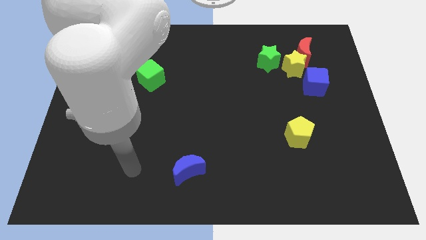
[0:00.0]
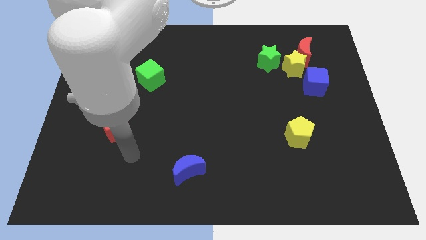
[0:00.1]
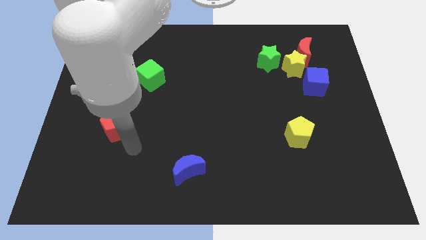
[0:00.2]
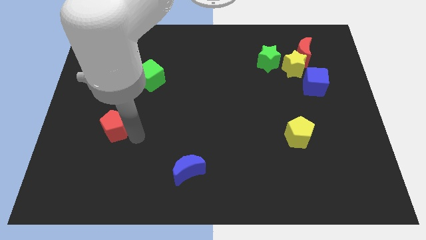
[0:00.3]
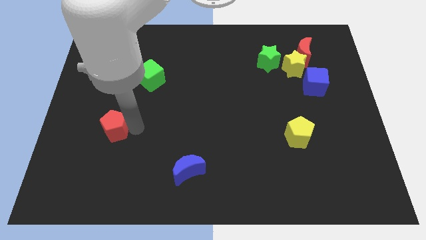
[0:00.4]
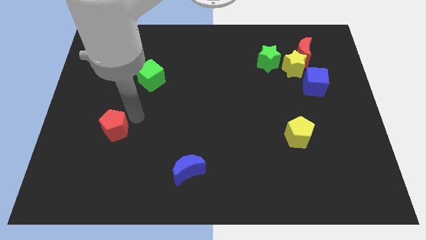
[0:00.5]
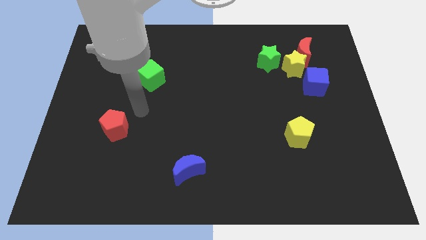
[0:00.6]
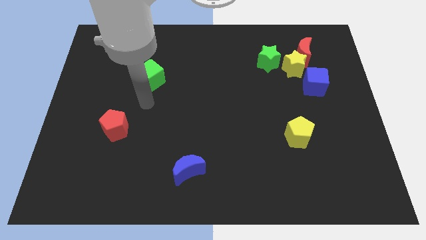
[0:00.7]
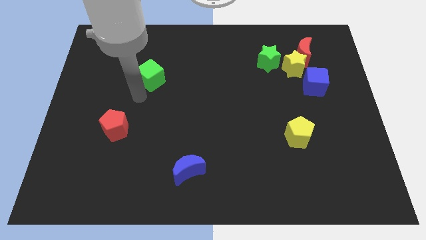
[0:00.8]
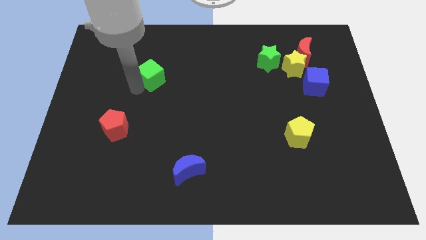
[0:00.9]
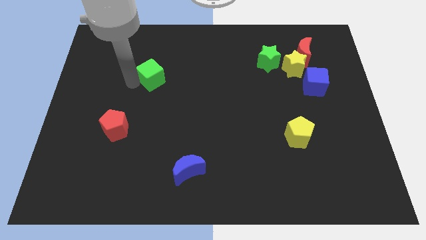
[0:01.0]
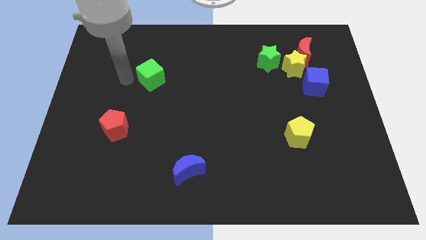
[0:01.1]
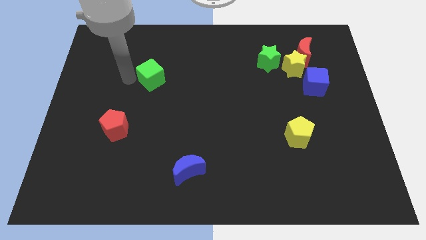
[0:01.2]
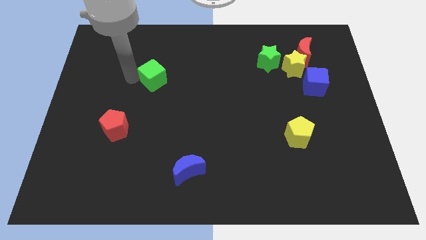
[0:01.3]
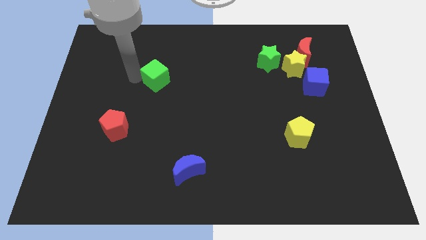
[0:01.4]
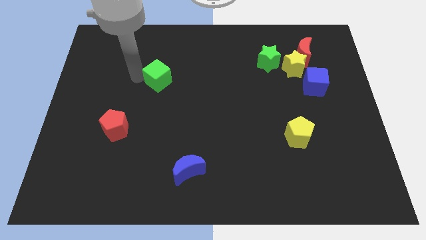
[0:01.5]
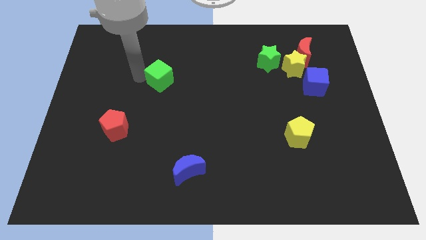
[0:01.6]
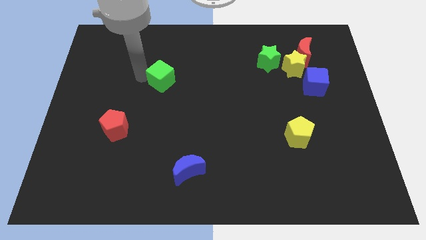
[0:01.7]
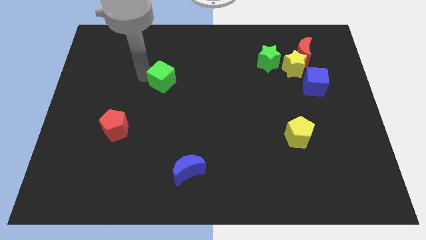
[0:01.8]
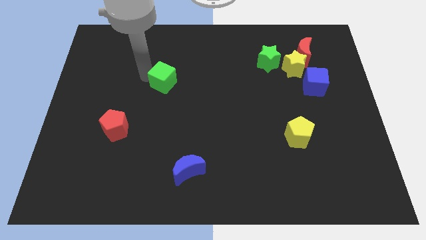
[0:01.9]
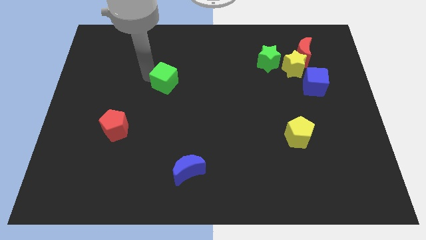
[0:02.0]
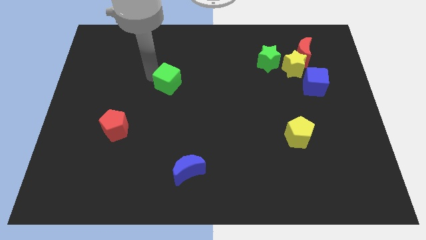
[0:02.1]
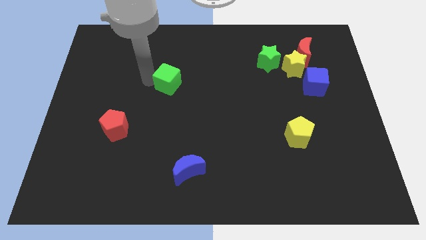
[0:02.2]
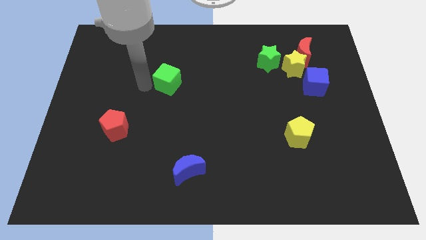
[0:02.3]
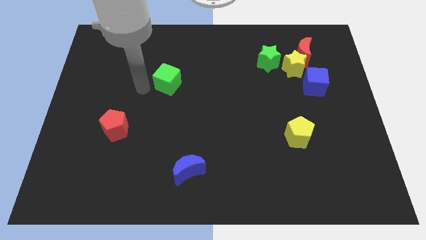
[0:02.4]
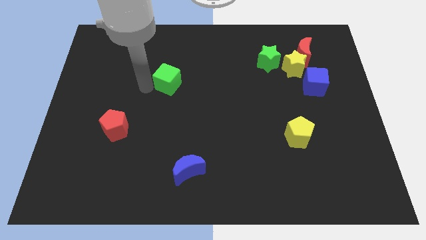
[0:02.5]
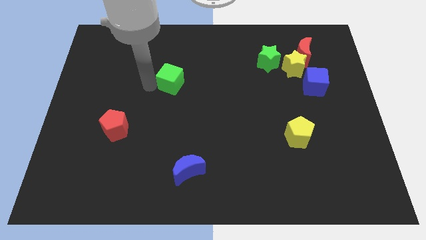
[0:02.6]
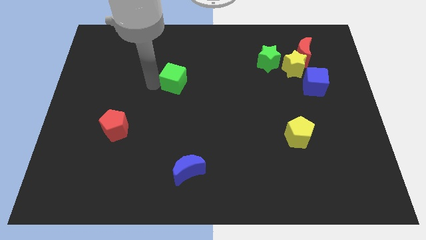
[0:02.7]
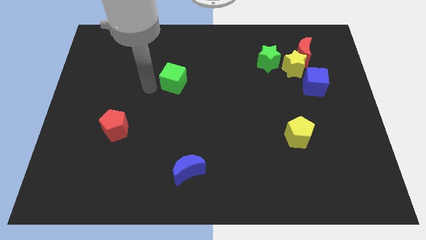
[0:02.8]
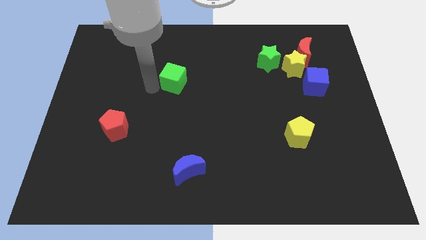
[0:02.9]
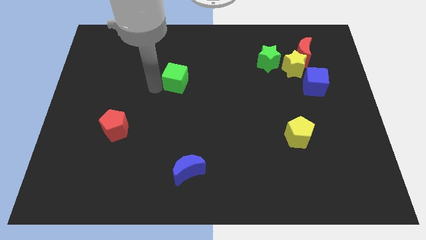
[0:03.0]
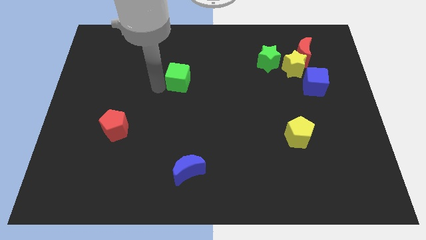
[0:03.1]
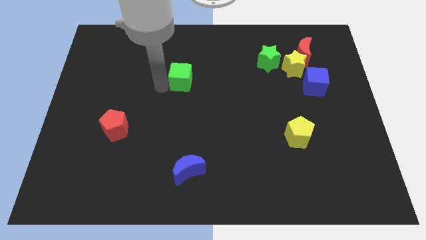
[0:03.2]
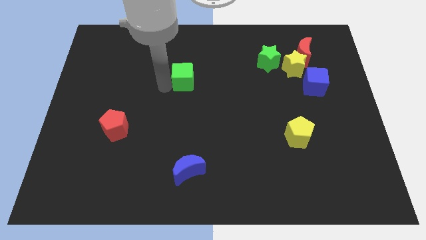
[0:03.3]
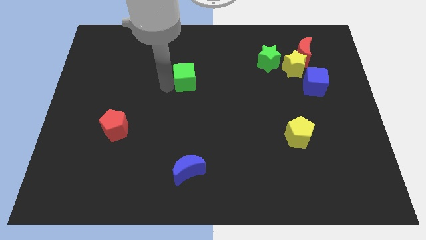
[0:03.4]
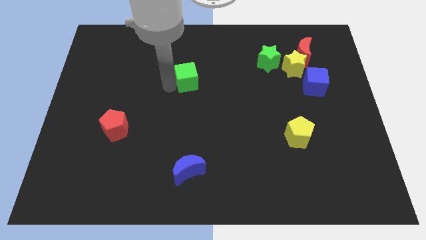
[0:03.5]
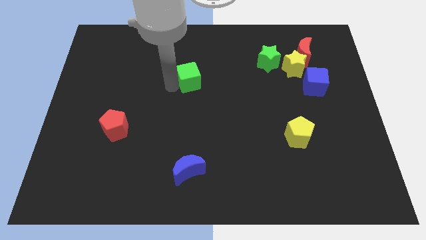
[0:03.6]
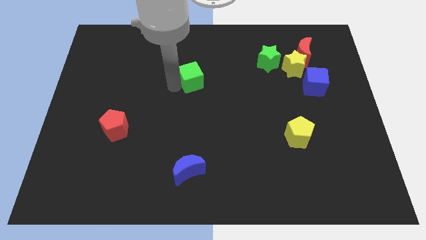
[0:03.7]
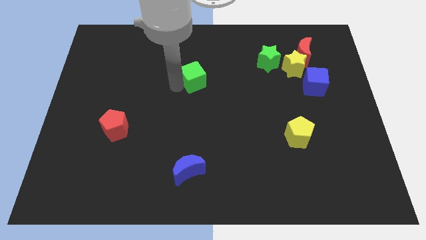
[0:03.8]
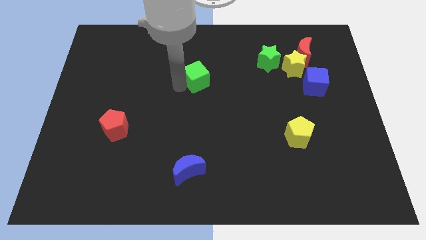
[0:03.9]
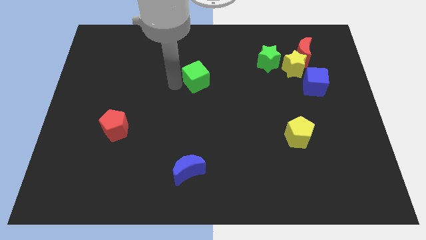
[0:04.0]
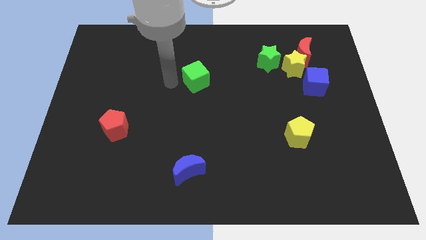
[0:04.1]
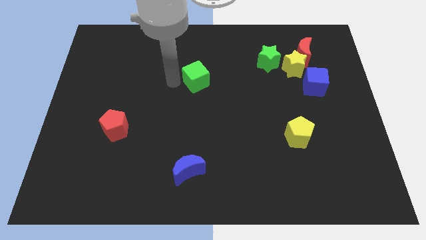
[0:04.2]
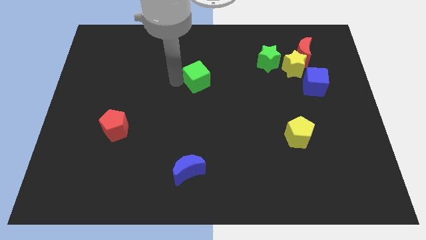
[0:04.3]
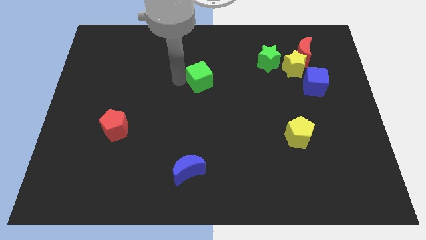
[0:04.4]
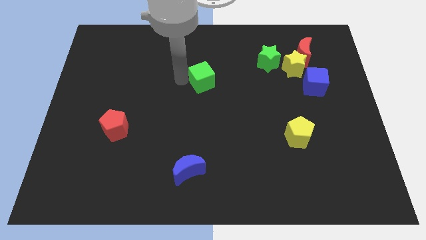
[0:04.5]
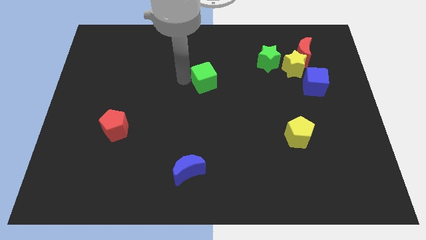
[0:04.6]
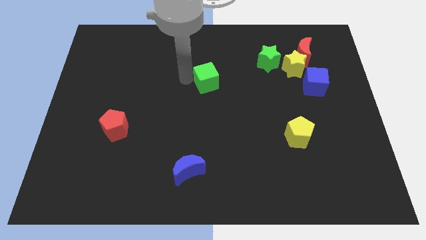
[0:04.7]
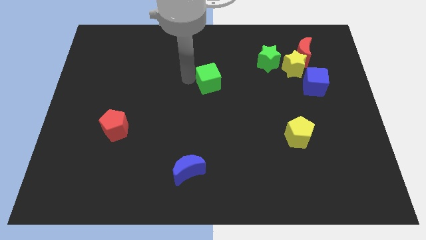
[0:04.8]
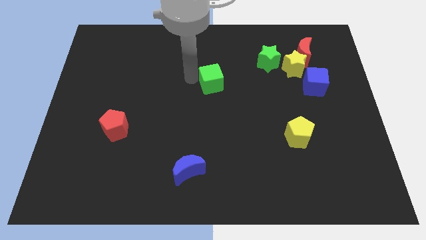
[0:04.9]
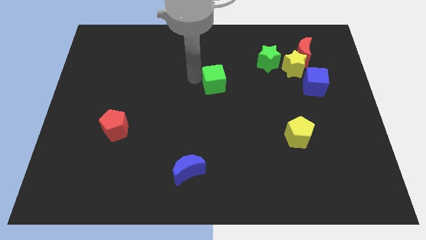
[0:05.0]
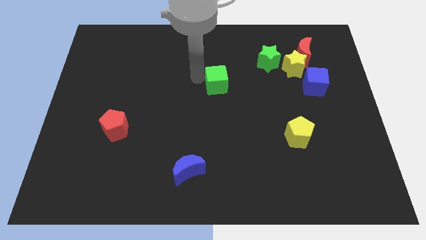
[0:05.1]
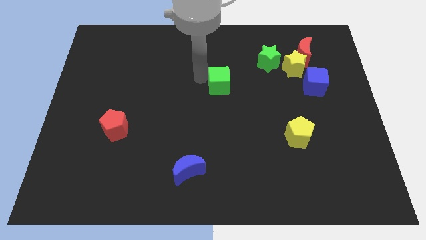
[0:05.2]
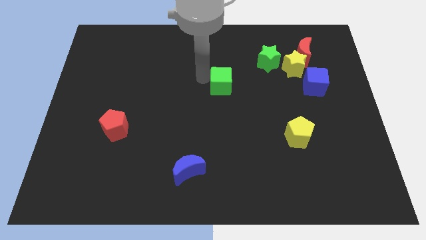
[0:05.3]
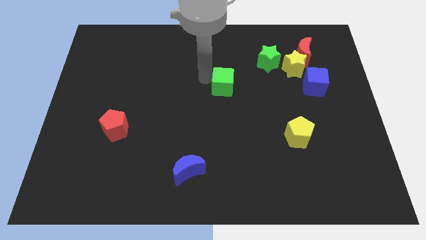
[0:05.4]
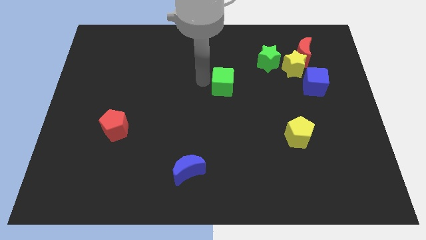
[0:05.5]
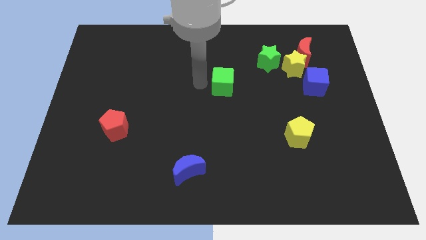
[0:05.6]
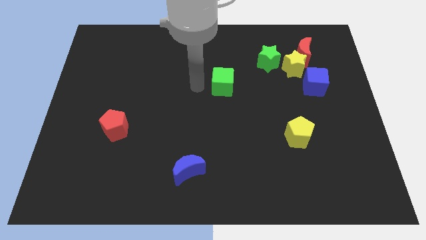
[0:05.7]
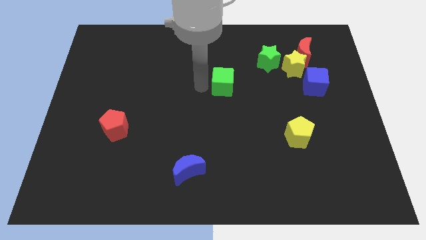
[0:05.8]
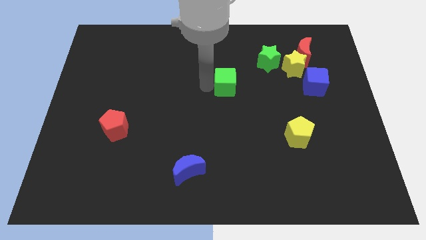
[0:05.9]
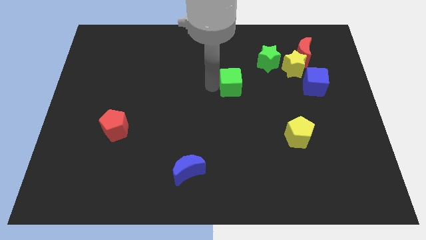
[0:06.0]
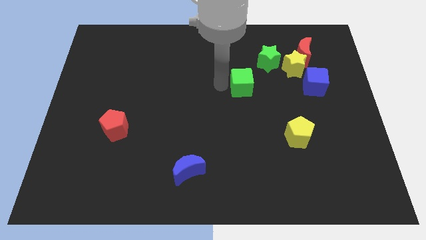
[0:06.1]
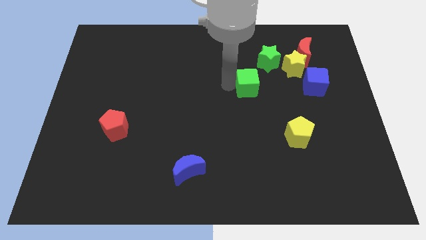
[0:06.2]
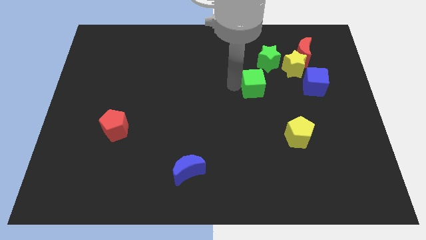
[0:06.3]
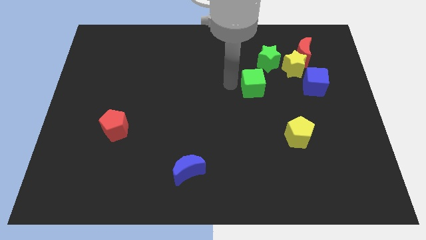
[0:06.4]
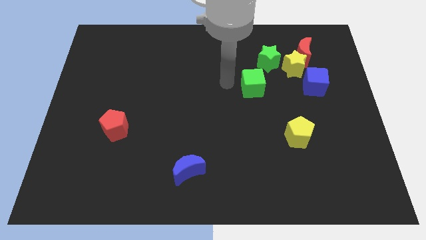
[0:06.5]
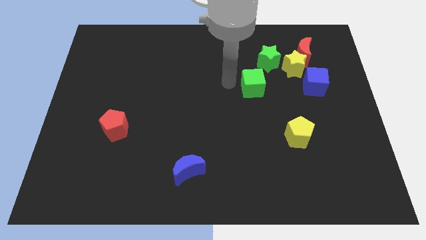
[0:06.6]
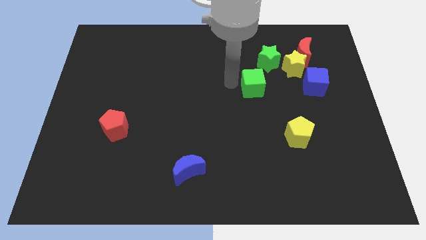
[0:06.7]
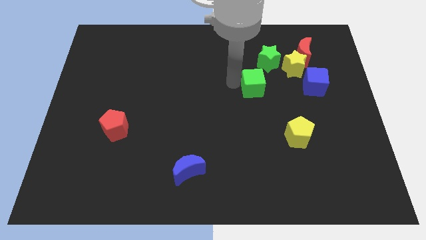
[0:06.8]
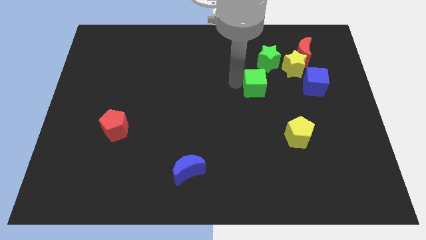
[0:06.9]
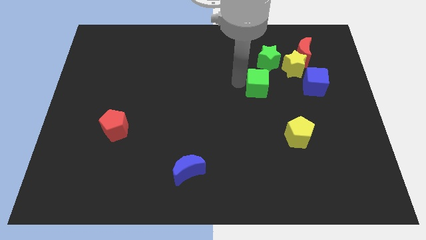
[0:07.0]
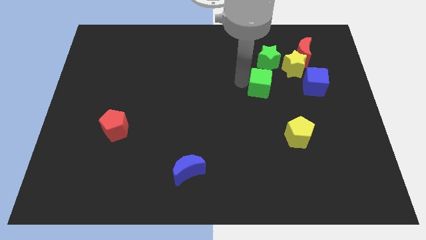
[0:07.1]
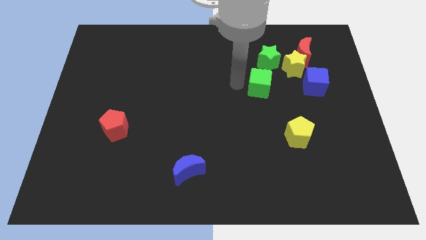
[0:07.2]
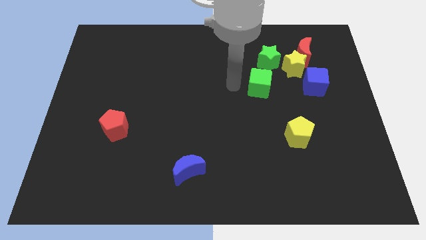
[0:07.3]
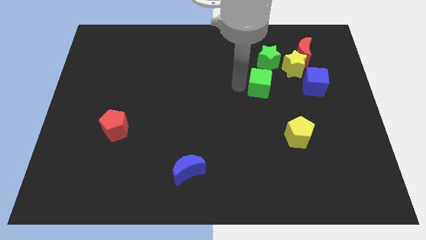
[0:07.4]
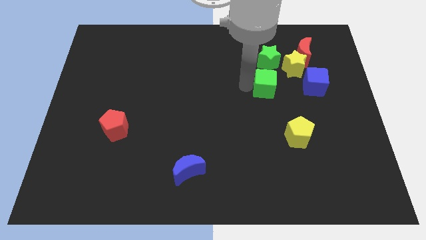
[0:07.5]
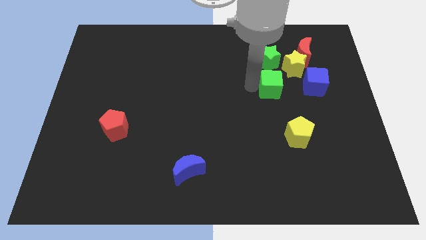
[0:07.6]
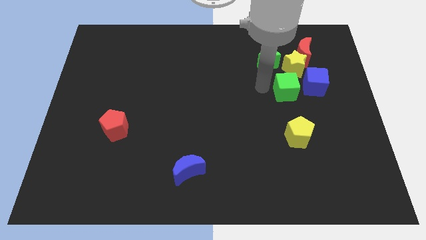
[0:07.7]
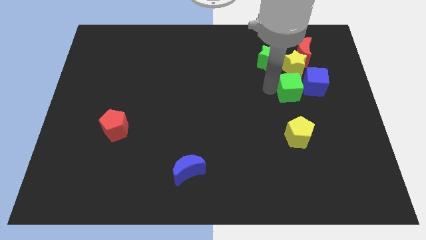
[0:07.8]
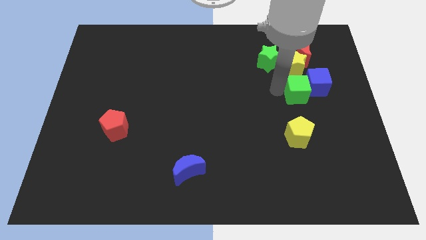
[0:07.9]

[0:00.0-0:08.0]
push the green cube to the blue cube
